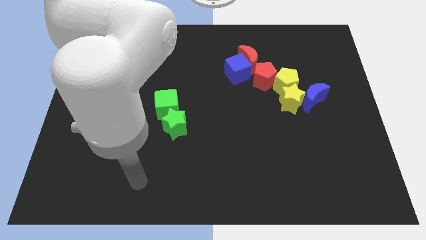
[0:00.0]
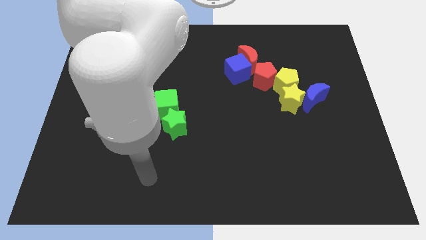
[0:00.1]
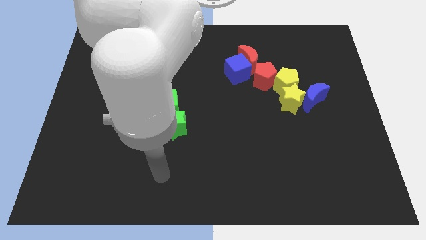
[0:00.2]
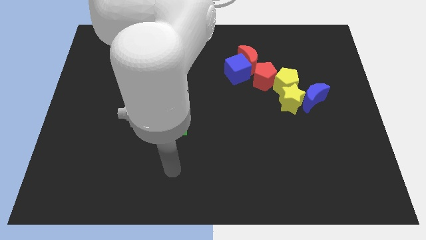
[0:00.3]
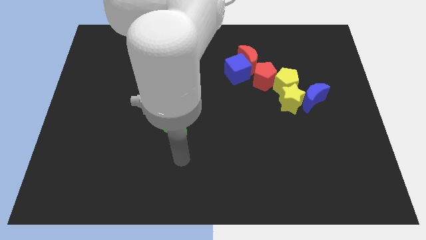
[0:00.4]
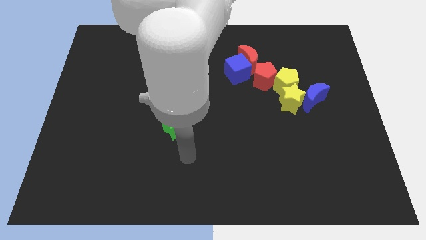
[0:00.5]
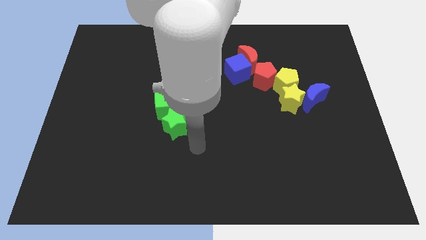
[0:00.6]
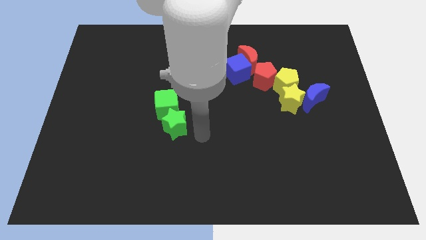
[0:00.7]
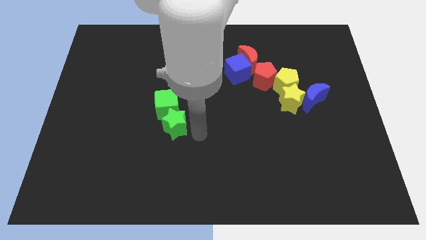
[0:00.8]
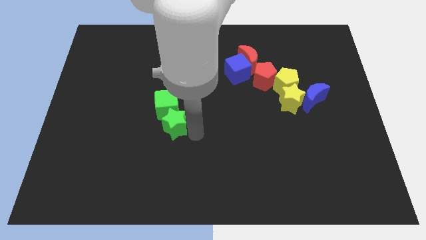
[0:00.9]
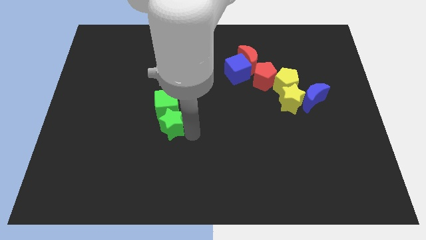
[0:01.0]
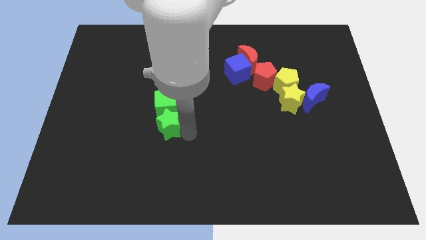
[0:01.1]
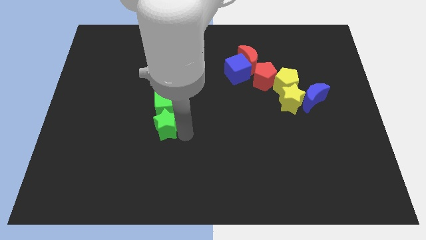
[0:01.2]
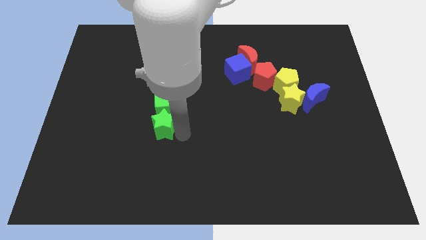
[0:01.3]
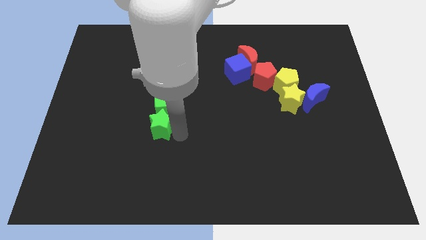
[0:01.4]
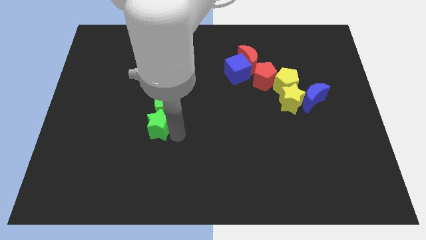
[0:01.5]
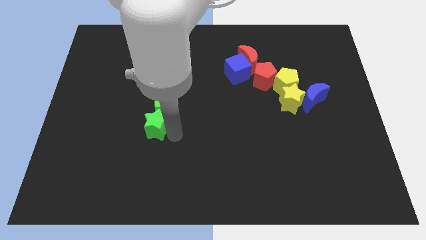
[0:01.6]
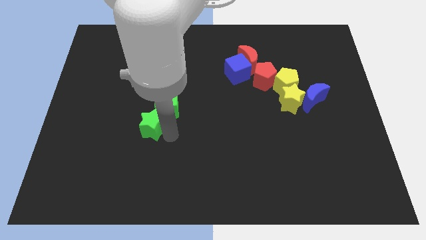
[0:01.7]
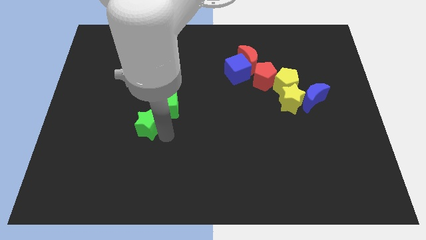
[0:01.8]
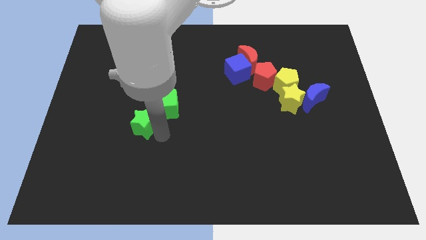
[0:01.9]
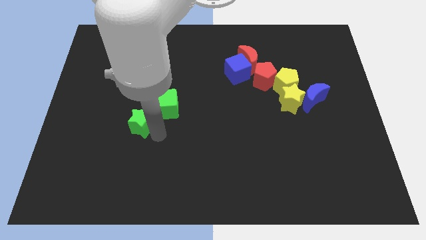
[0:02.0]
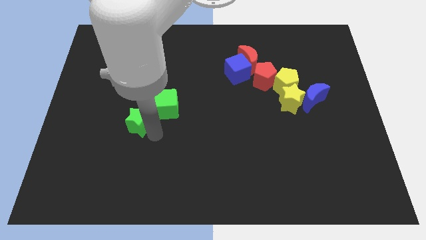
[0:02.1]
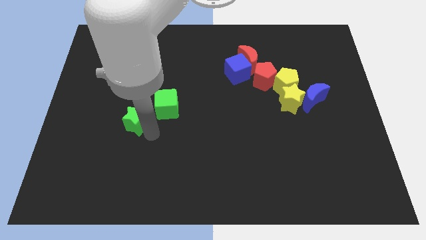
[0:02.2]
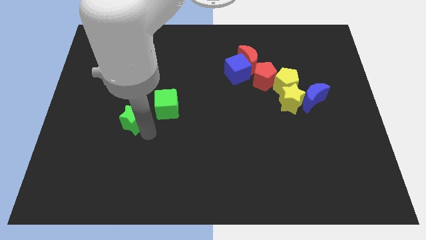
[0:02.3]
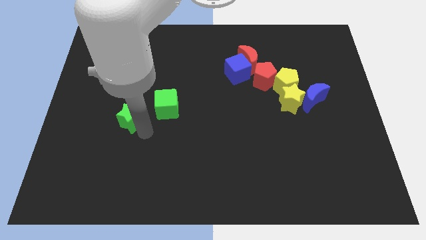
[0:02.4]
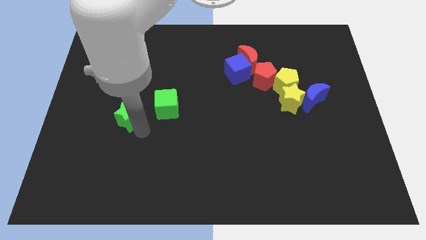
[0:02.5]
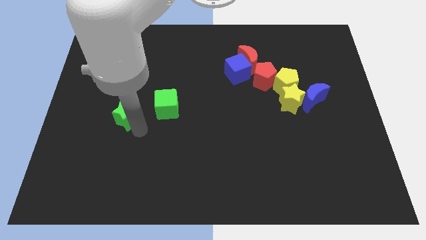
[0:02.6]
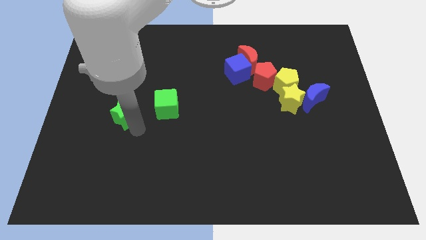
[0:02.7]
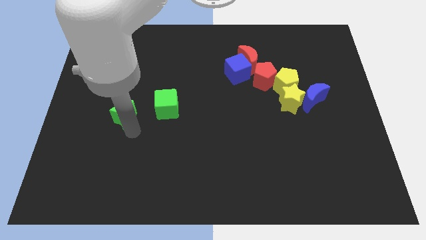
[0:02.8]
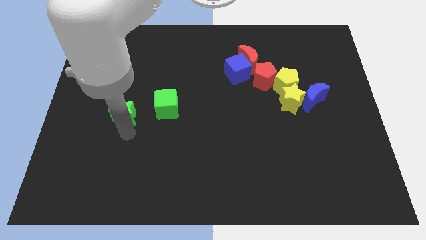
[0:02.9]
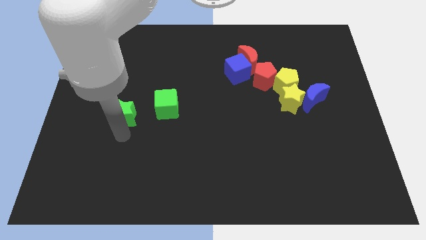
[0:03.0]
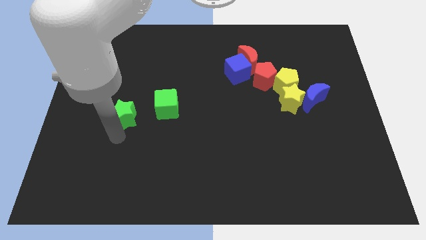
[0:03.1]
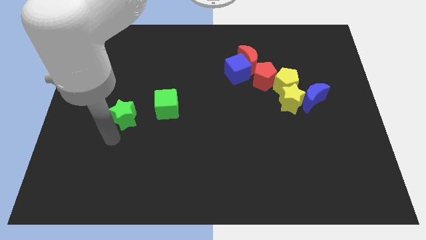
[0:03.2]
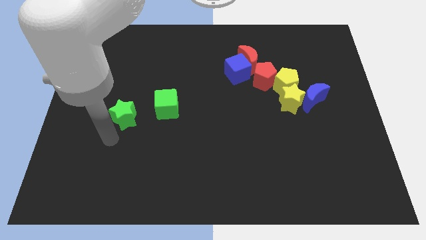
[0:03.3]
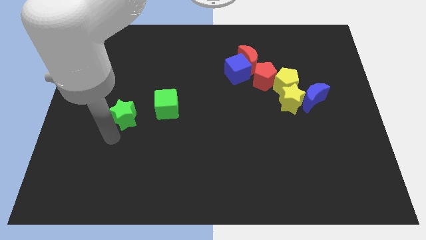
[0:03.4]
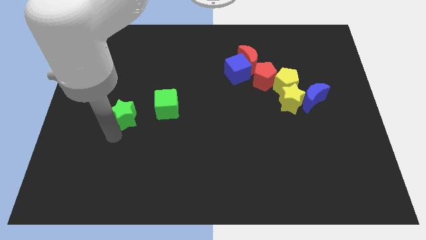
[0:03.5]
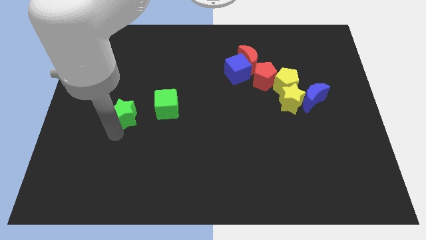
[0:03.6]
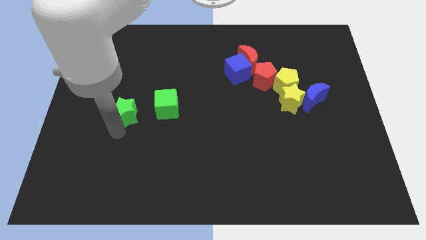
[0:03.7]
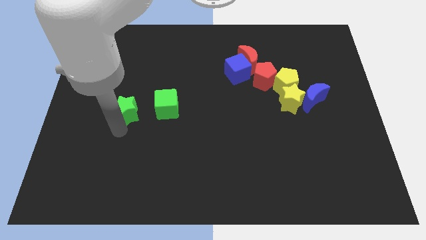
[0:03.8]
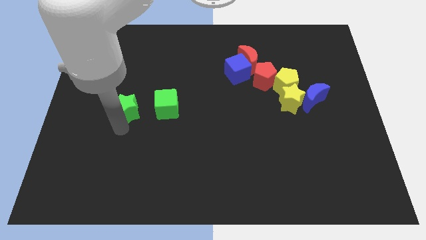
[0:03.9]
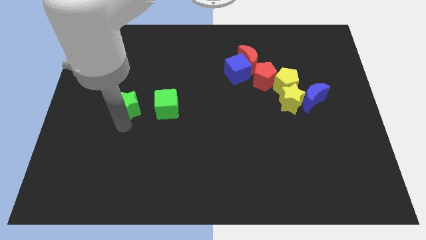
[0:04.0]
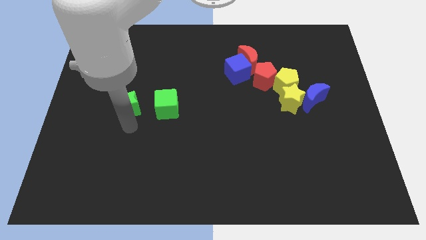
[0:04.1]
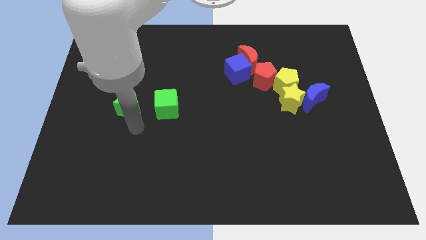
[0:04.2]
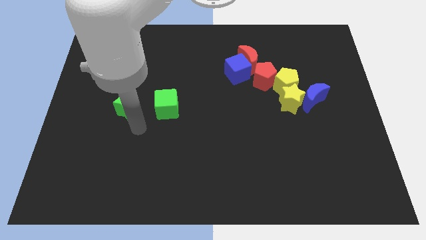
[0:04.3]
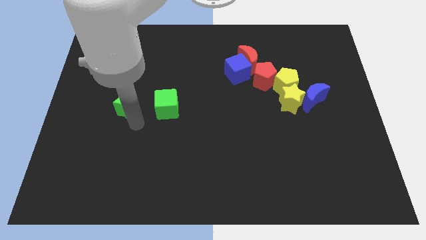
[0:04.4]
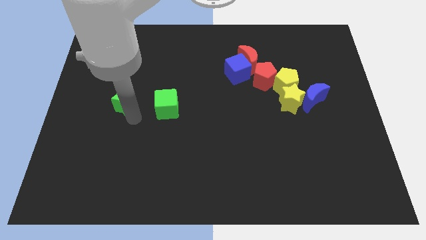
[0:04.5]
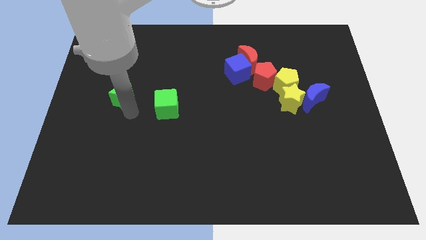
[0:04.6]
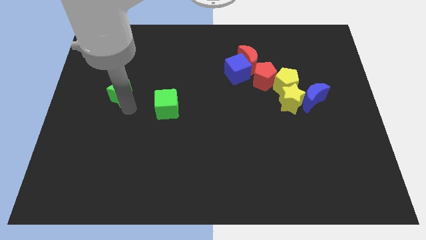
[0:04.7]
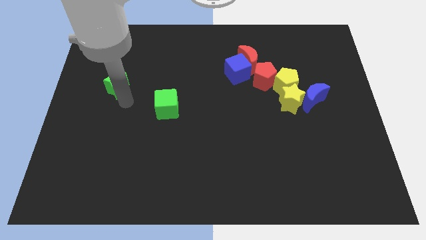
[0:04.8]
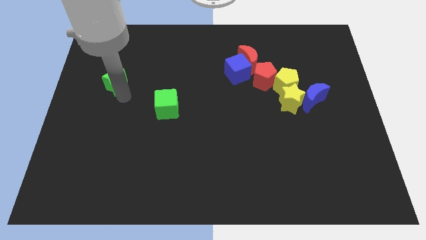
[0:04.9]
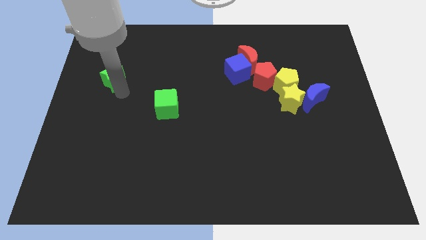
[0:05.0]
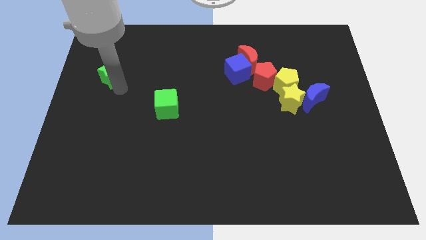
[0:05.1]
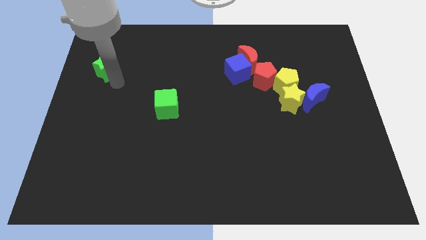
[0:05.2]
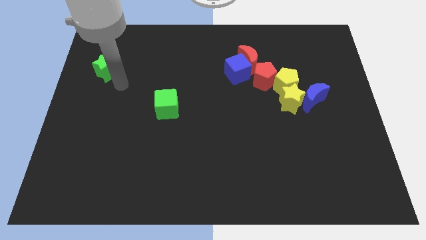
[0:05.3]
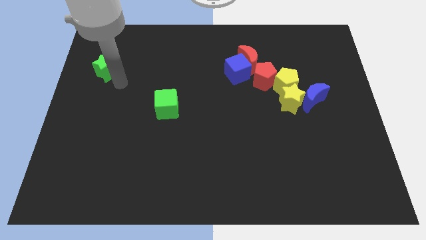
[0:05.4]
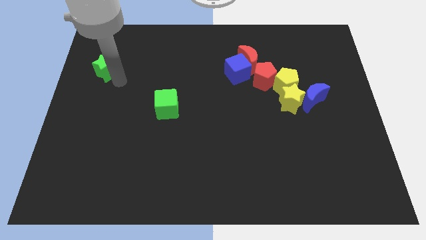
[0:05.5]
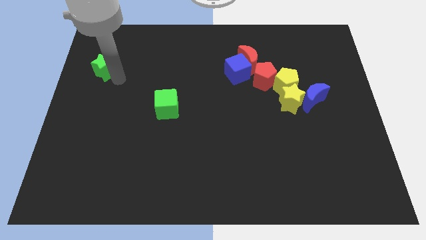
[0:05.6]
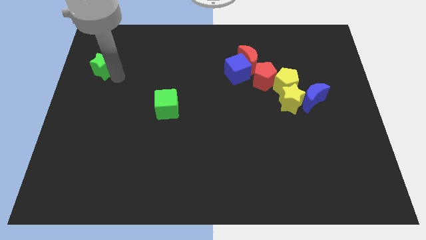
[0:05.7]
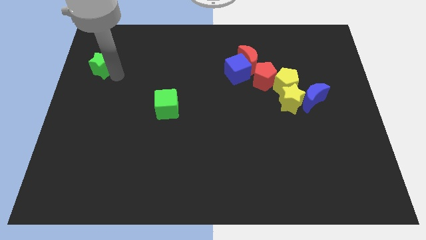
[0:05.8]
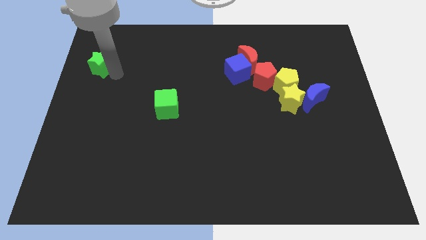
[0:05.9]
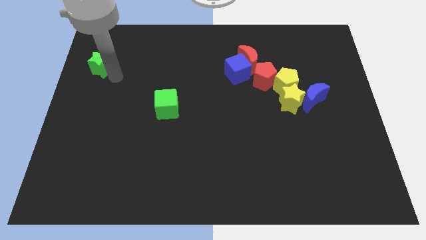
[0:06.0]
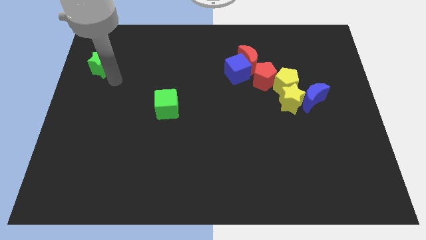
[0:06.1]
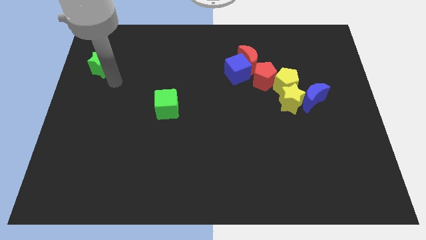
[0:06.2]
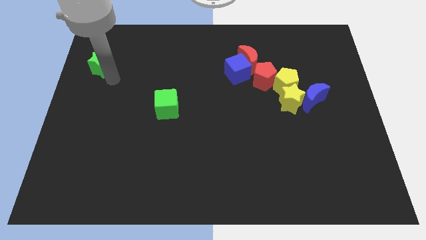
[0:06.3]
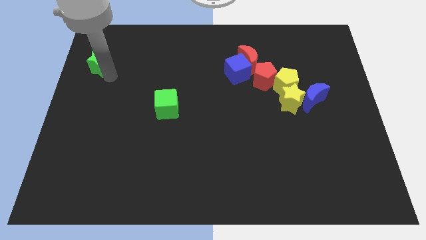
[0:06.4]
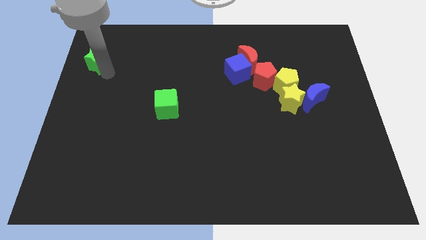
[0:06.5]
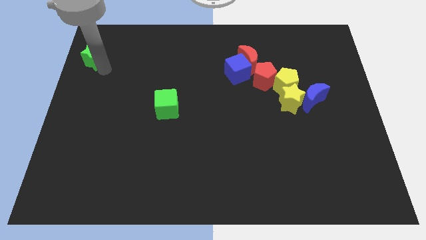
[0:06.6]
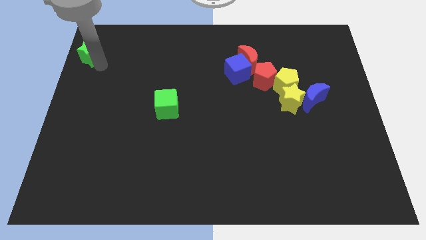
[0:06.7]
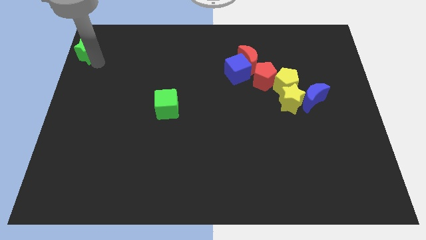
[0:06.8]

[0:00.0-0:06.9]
put the green star to the upper left corner
